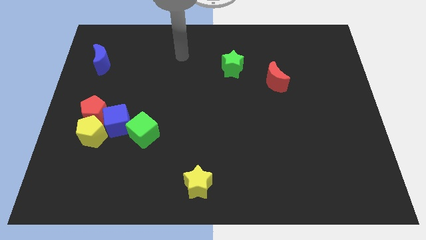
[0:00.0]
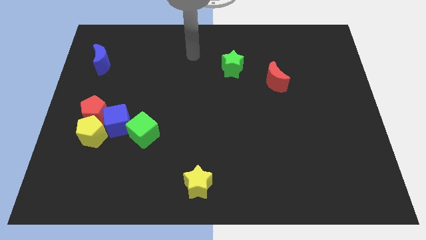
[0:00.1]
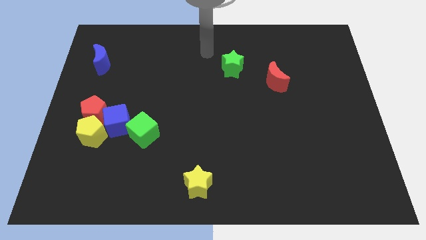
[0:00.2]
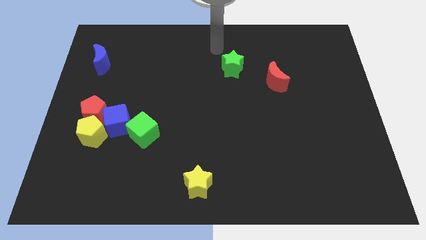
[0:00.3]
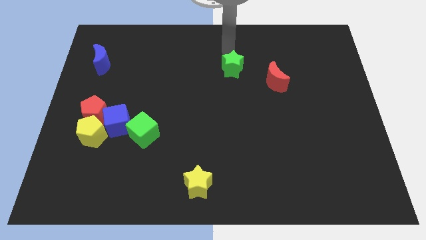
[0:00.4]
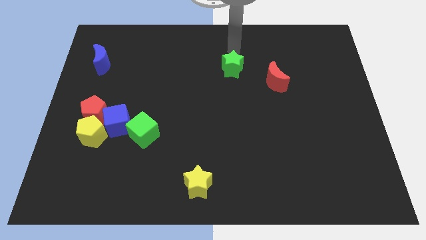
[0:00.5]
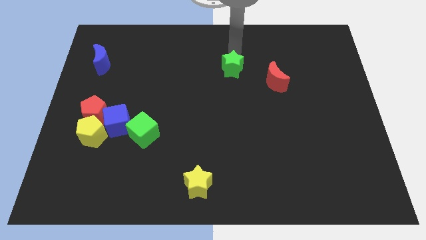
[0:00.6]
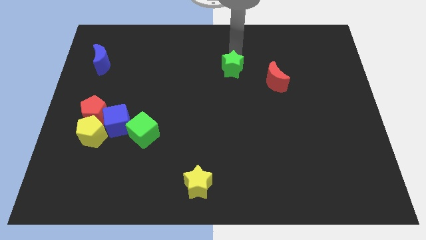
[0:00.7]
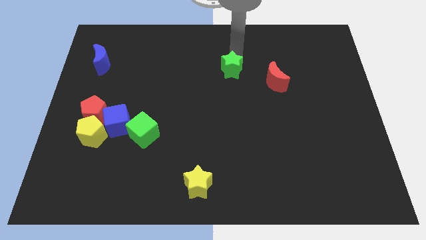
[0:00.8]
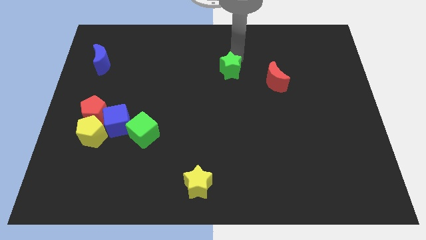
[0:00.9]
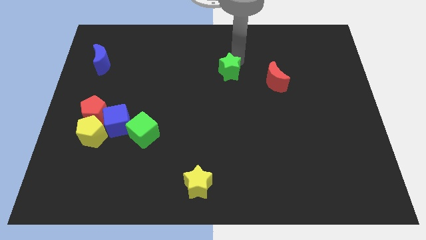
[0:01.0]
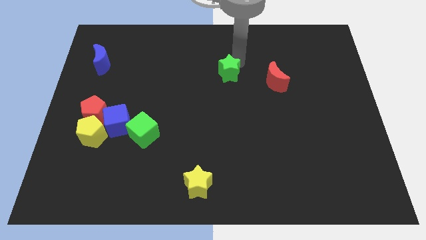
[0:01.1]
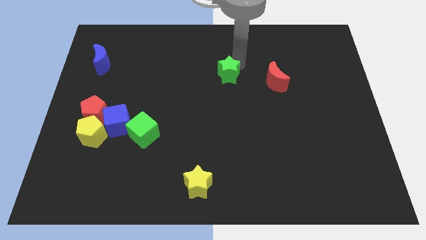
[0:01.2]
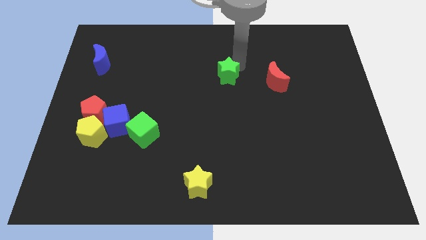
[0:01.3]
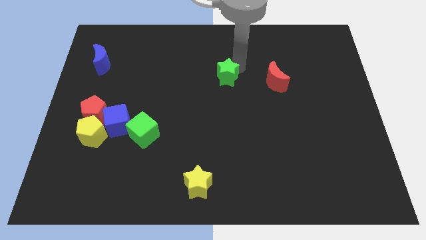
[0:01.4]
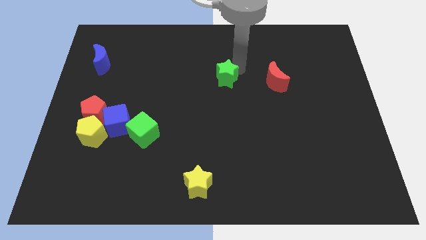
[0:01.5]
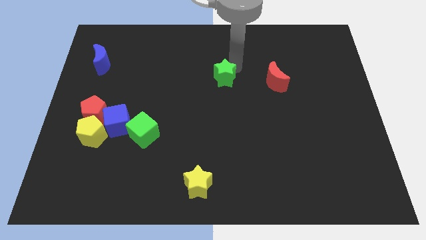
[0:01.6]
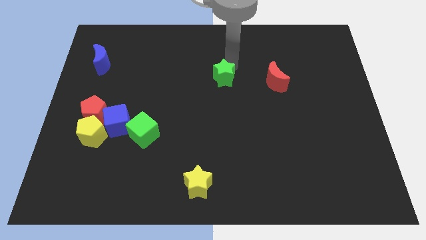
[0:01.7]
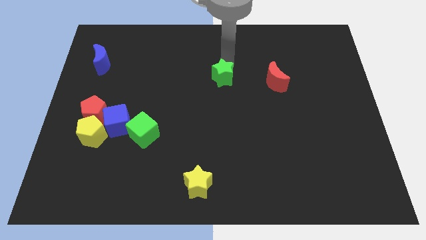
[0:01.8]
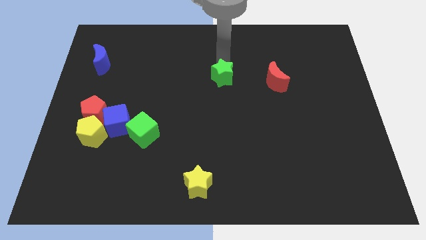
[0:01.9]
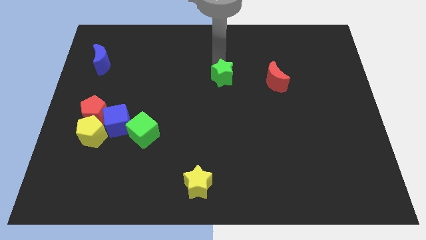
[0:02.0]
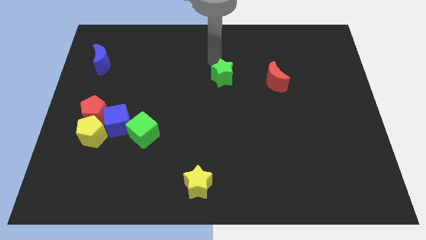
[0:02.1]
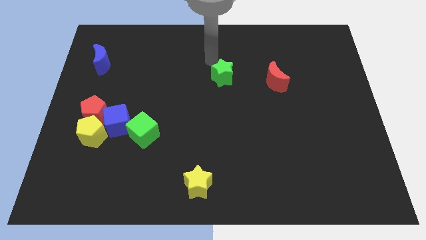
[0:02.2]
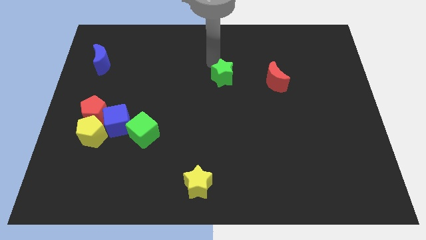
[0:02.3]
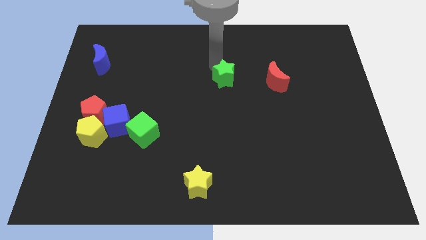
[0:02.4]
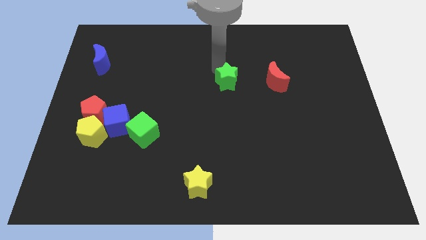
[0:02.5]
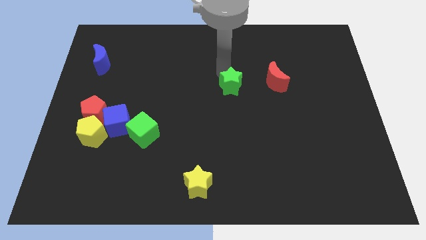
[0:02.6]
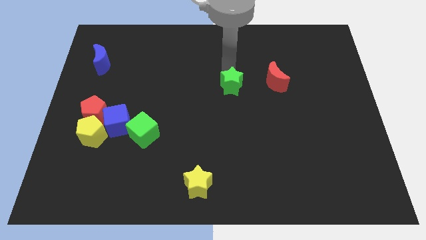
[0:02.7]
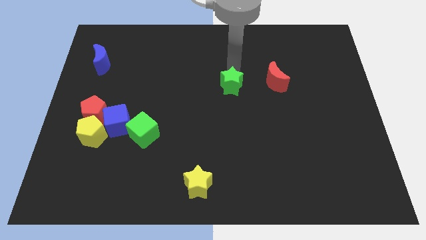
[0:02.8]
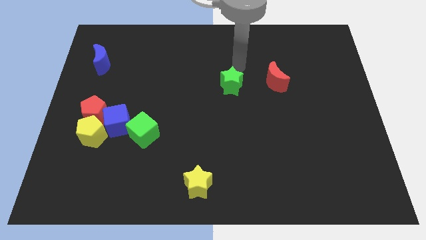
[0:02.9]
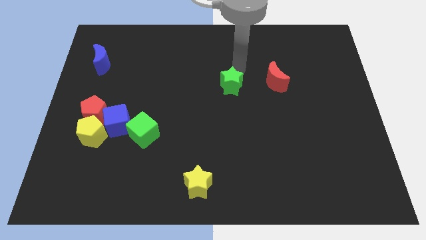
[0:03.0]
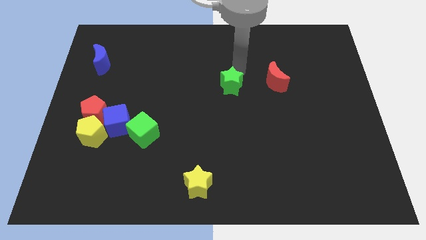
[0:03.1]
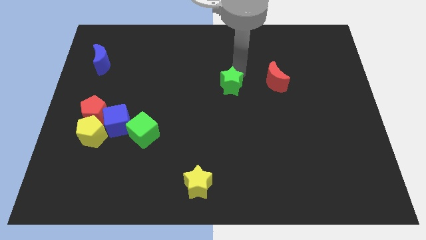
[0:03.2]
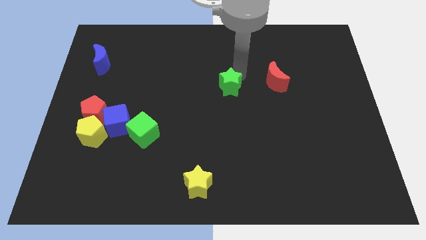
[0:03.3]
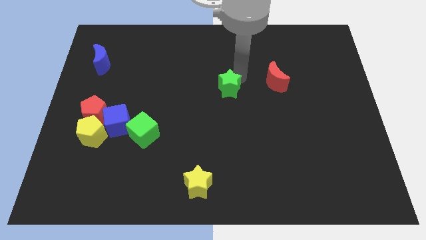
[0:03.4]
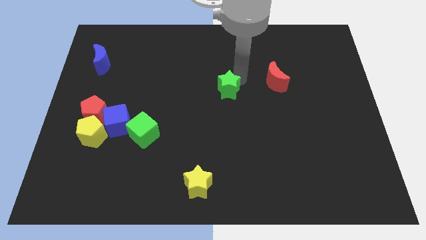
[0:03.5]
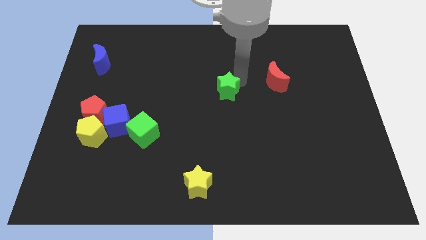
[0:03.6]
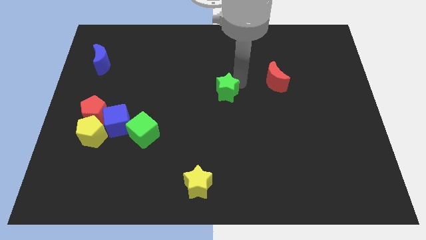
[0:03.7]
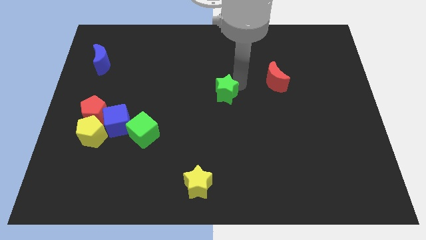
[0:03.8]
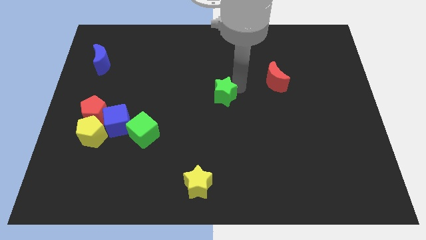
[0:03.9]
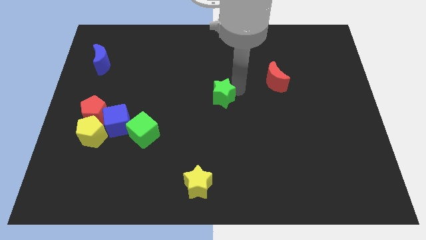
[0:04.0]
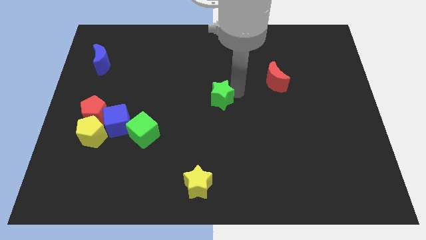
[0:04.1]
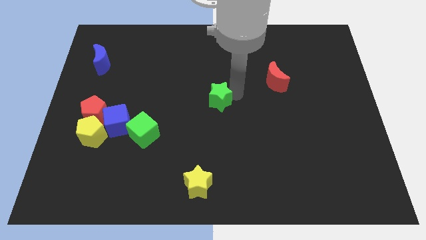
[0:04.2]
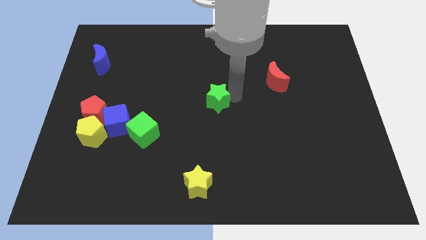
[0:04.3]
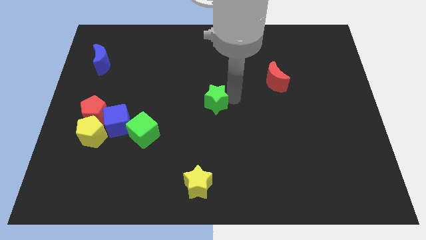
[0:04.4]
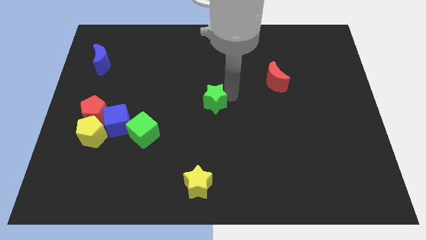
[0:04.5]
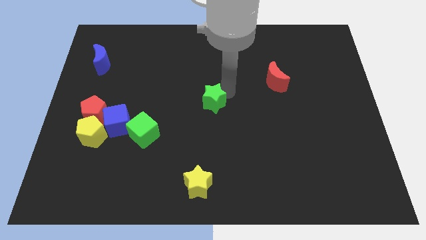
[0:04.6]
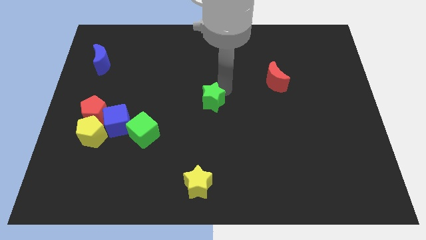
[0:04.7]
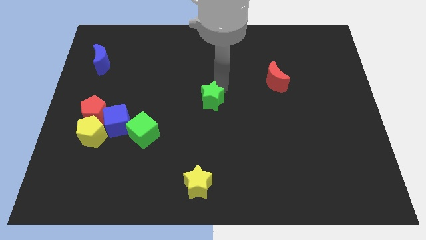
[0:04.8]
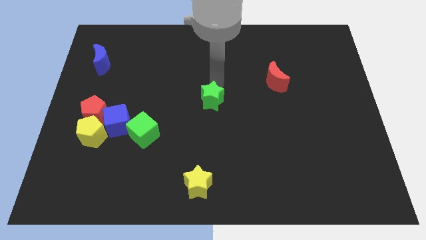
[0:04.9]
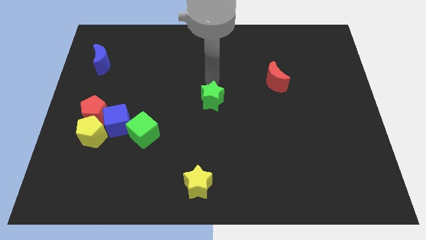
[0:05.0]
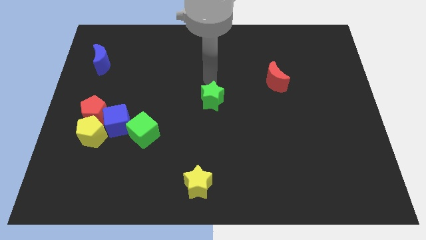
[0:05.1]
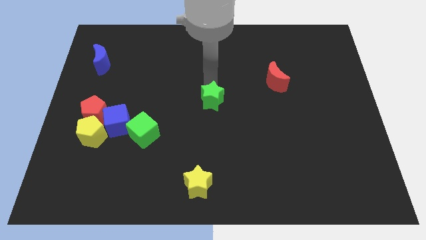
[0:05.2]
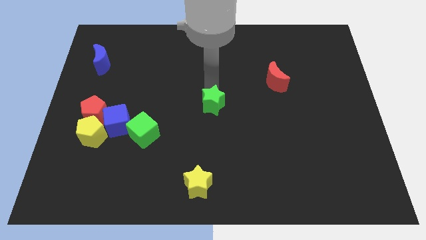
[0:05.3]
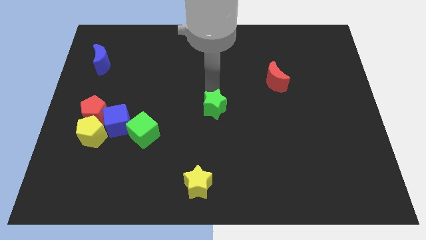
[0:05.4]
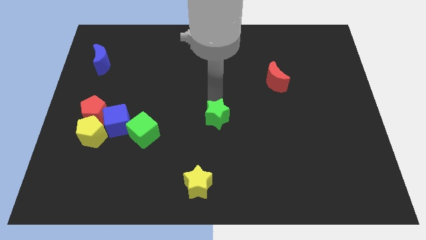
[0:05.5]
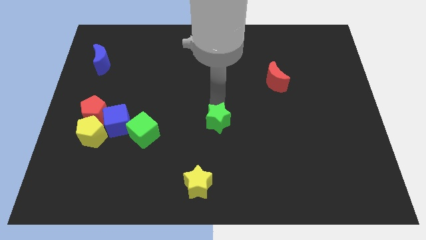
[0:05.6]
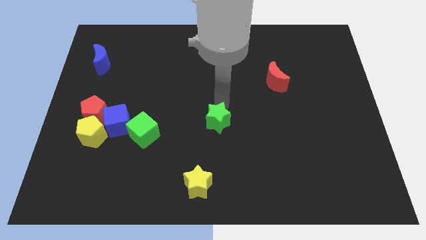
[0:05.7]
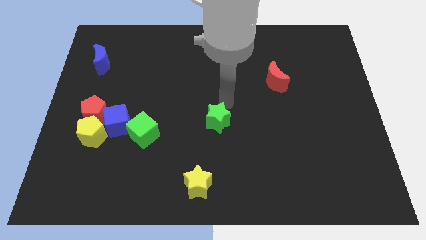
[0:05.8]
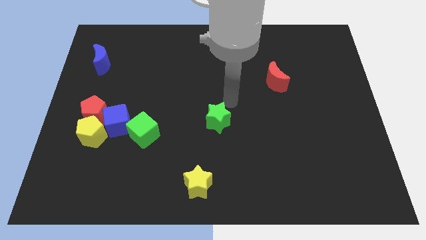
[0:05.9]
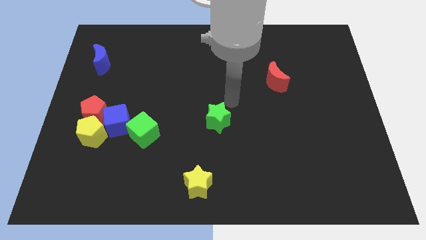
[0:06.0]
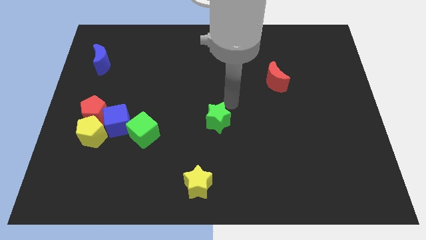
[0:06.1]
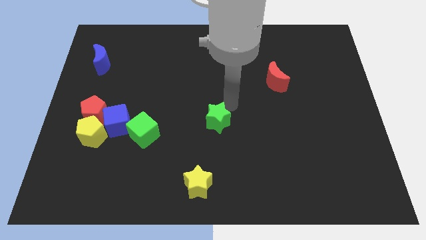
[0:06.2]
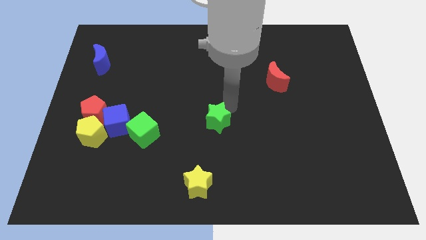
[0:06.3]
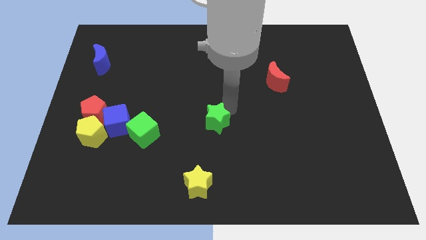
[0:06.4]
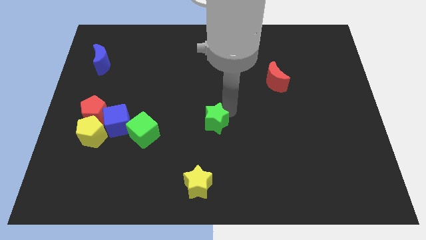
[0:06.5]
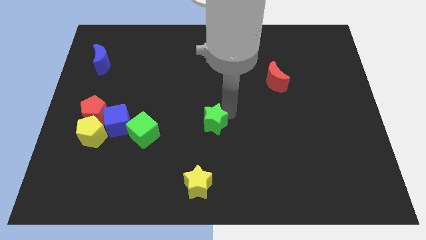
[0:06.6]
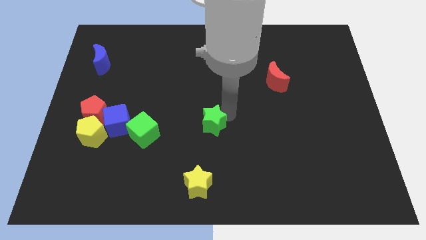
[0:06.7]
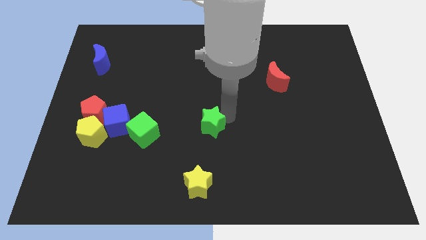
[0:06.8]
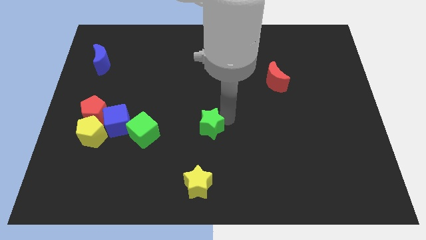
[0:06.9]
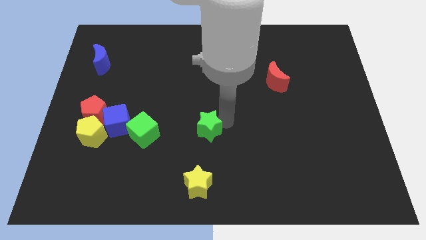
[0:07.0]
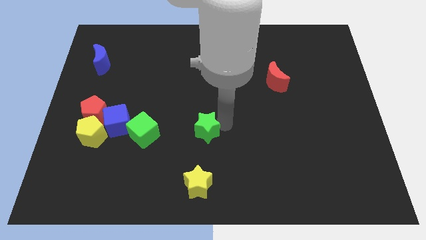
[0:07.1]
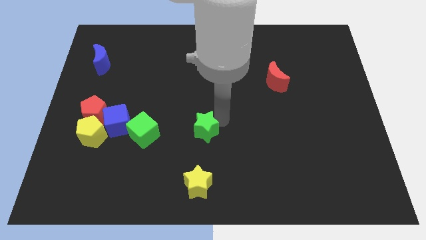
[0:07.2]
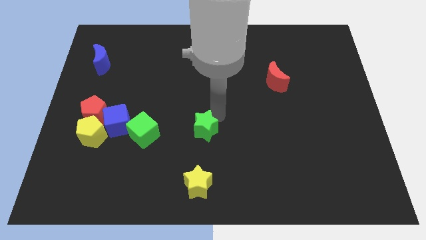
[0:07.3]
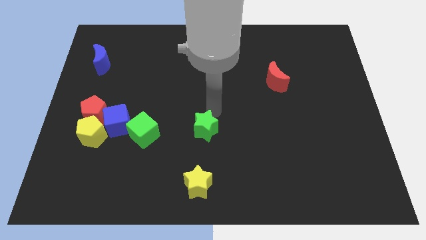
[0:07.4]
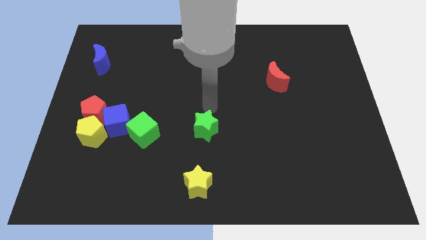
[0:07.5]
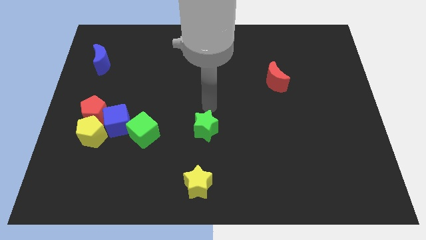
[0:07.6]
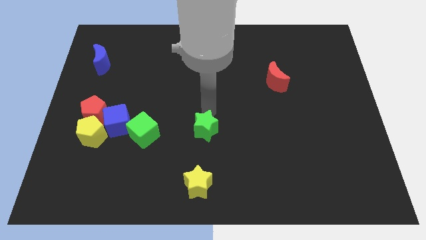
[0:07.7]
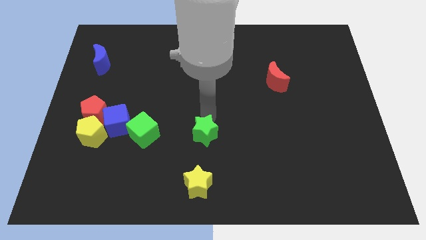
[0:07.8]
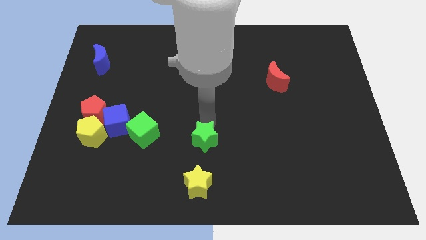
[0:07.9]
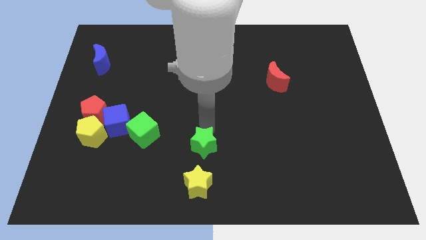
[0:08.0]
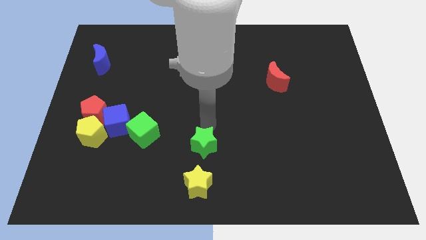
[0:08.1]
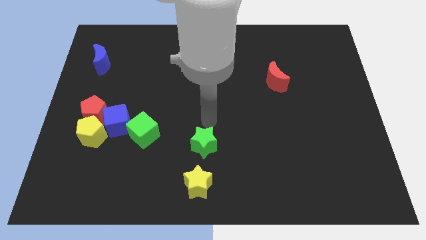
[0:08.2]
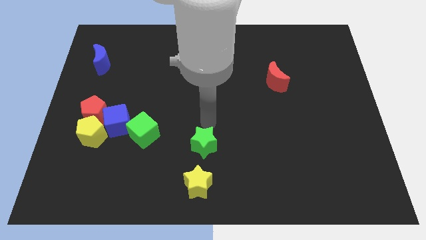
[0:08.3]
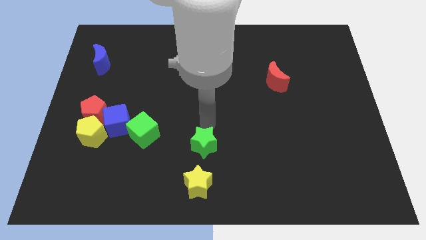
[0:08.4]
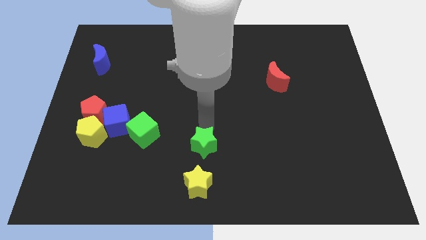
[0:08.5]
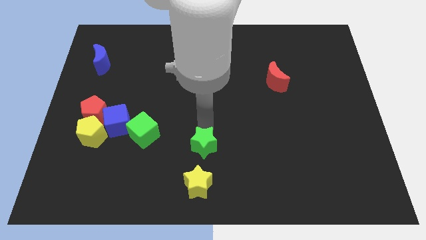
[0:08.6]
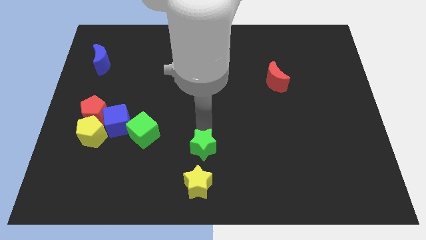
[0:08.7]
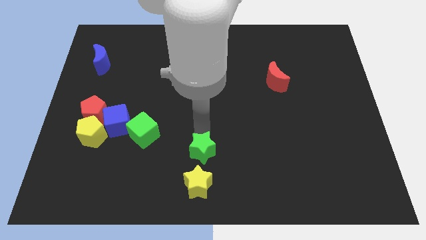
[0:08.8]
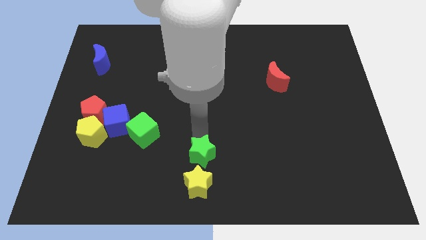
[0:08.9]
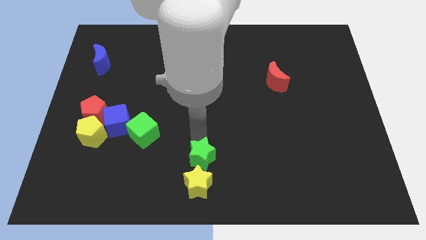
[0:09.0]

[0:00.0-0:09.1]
slide the green star close to the yellow star
